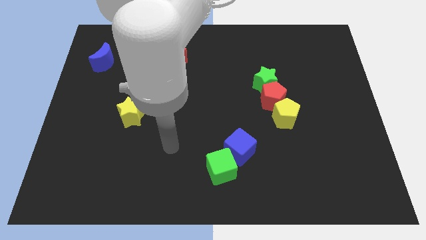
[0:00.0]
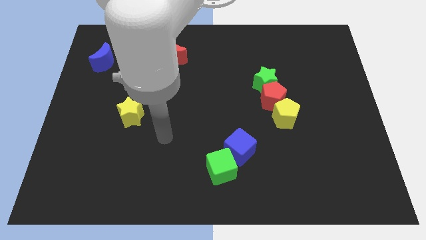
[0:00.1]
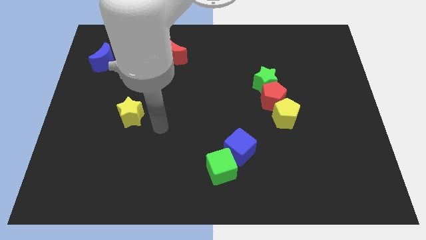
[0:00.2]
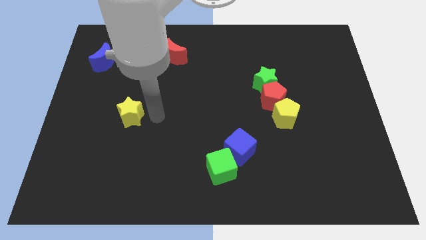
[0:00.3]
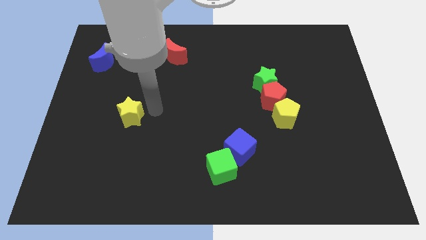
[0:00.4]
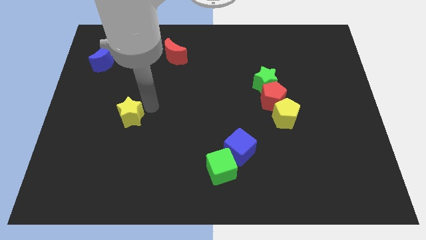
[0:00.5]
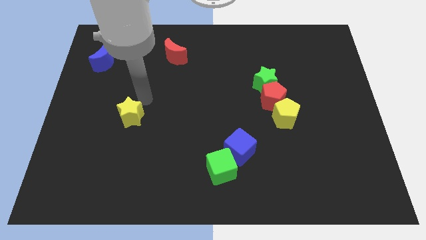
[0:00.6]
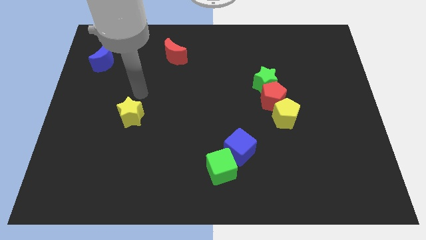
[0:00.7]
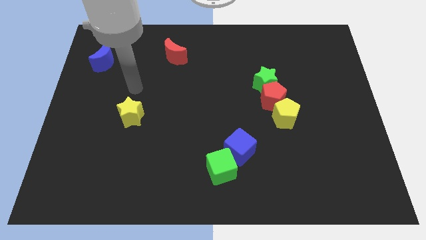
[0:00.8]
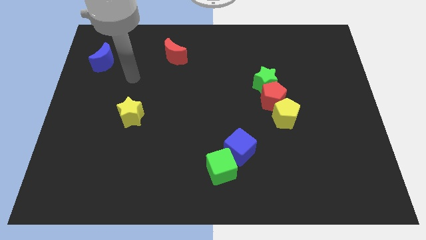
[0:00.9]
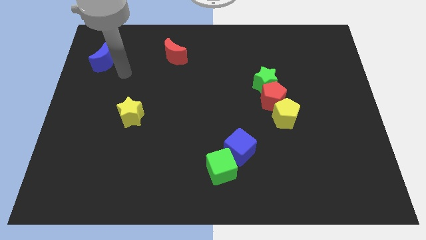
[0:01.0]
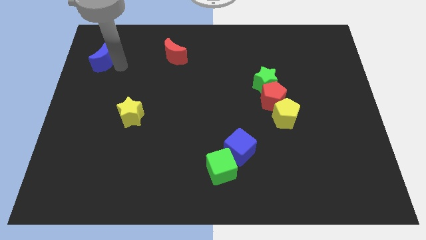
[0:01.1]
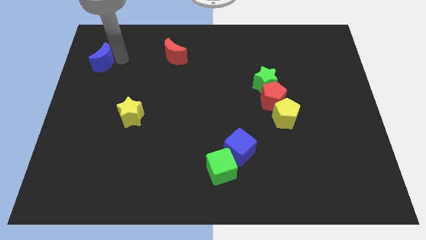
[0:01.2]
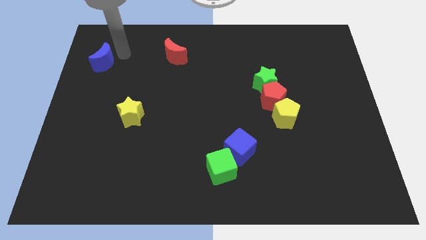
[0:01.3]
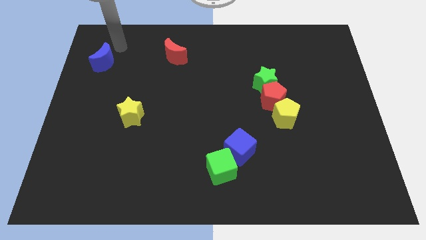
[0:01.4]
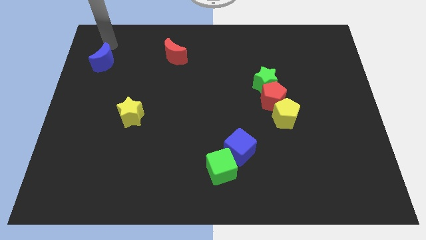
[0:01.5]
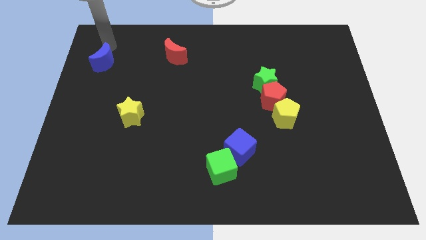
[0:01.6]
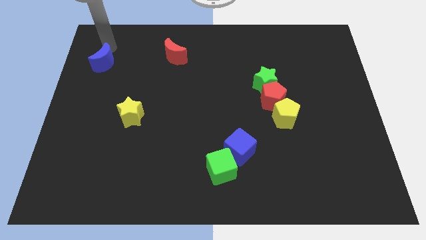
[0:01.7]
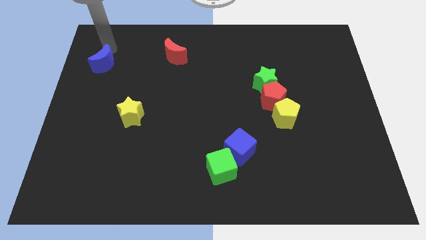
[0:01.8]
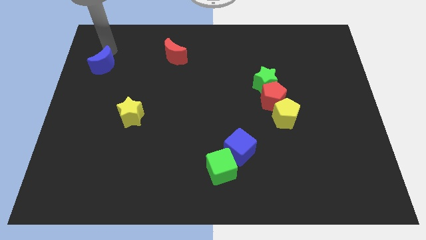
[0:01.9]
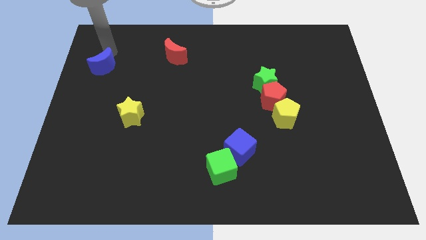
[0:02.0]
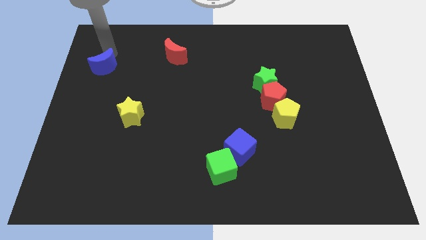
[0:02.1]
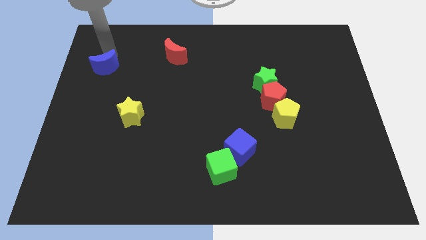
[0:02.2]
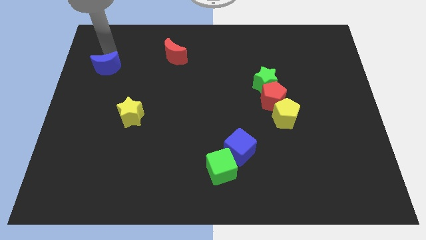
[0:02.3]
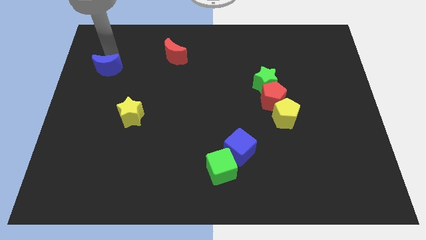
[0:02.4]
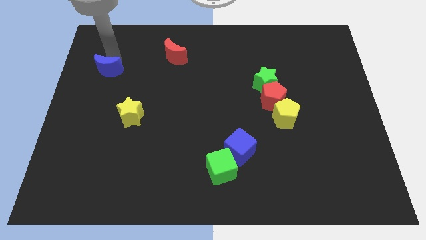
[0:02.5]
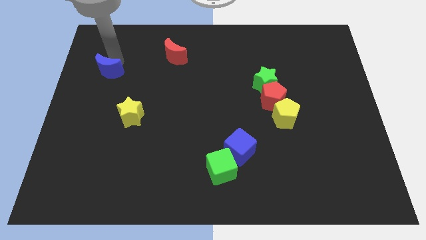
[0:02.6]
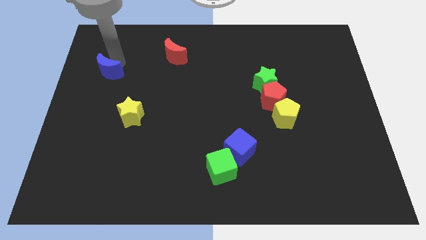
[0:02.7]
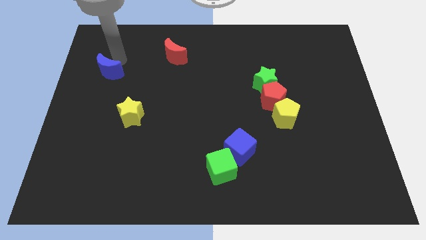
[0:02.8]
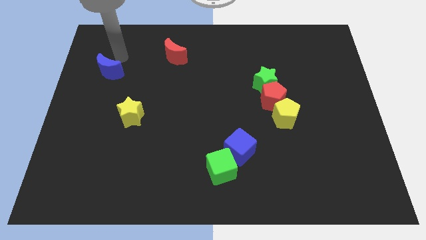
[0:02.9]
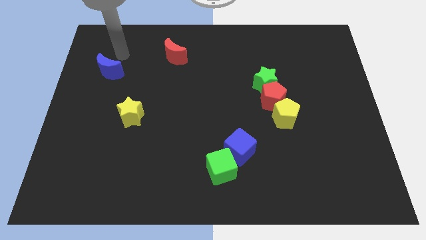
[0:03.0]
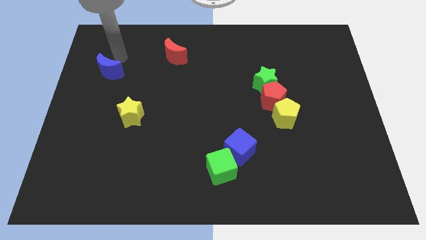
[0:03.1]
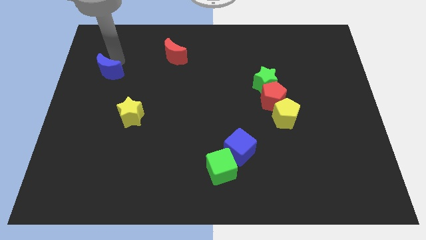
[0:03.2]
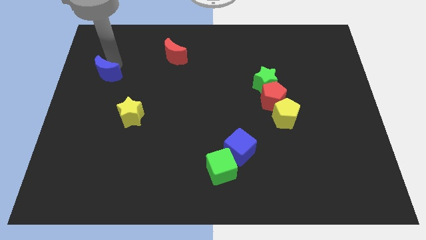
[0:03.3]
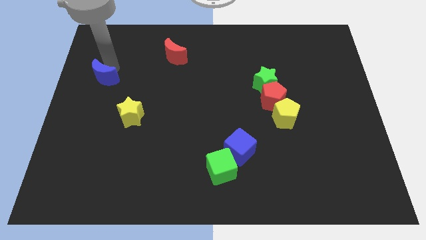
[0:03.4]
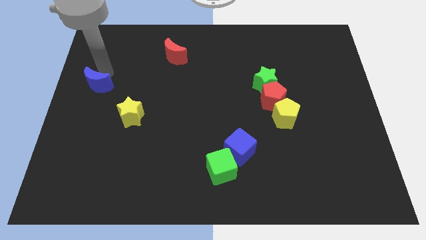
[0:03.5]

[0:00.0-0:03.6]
push the blue moon a little bit down

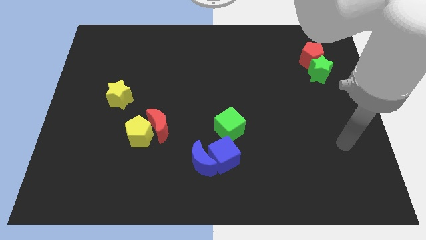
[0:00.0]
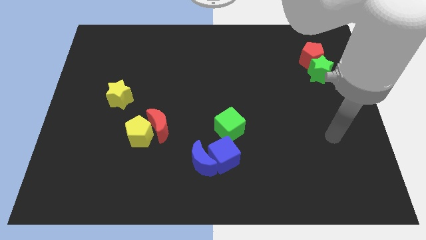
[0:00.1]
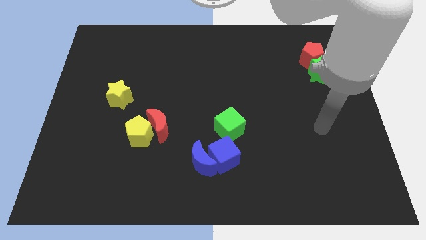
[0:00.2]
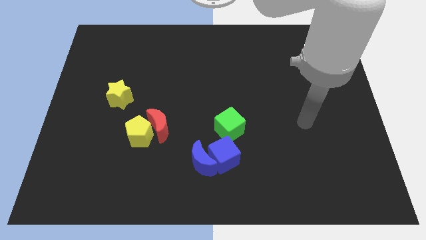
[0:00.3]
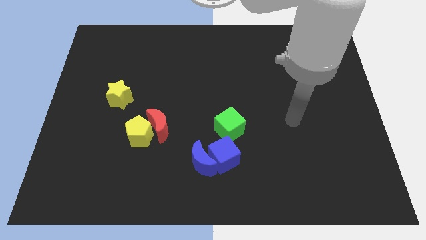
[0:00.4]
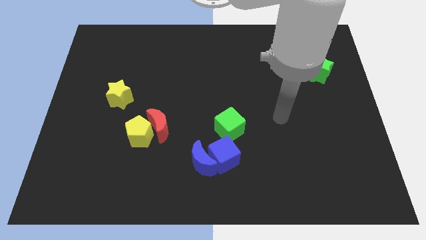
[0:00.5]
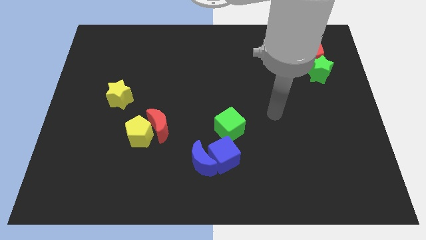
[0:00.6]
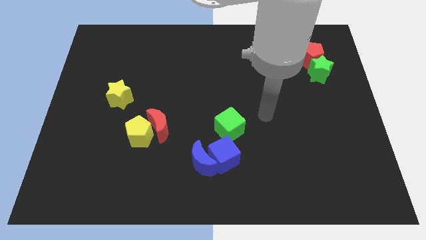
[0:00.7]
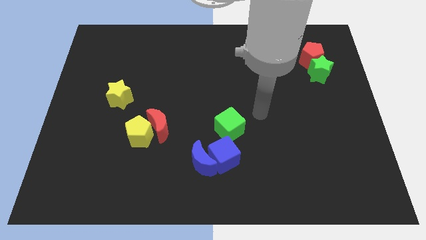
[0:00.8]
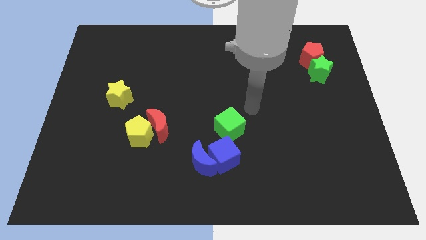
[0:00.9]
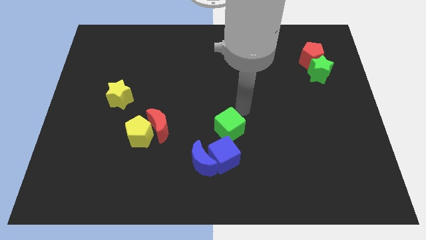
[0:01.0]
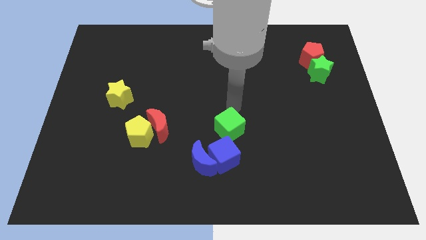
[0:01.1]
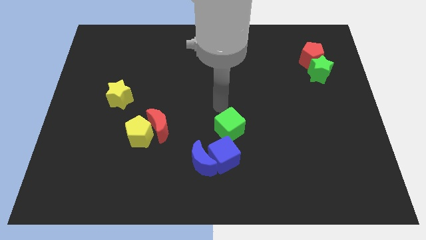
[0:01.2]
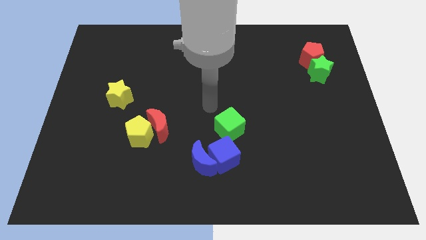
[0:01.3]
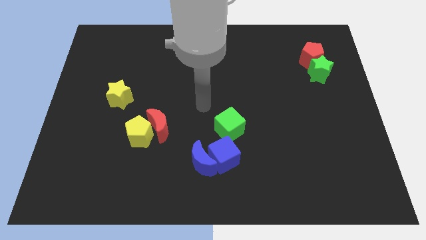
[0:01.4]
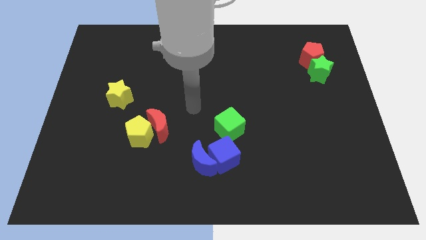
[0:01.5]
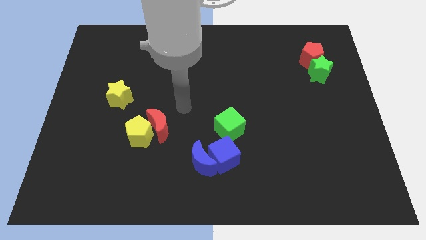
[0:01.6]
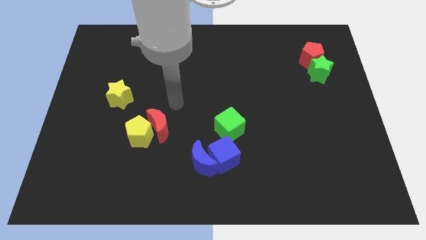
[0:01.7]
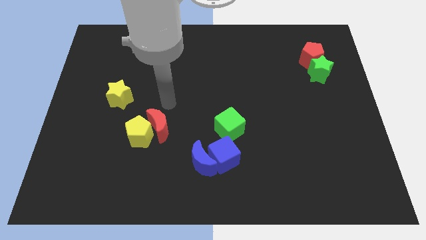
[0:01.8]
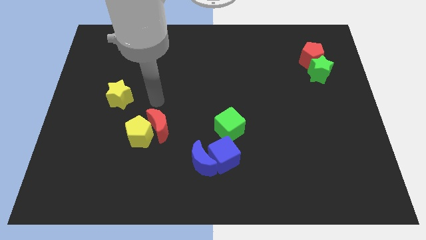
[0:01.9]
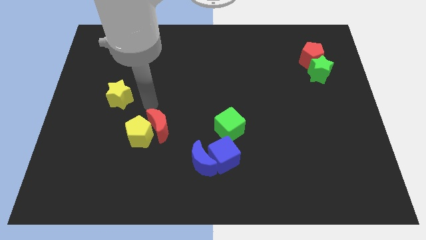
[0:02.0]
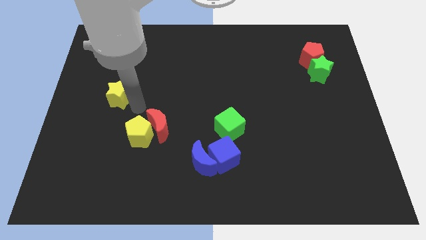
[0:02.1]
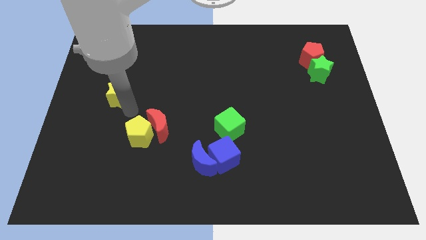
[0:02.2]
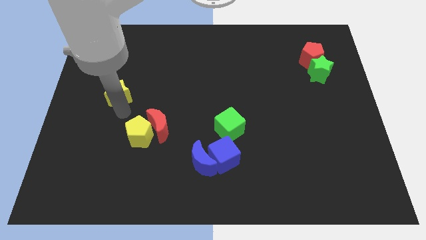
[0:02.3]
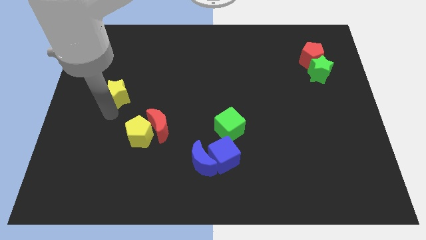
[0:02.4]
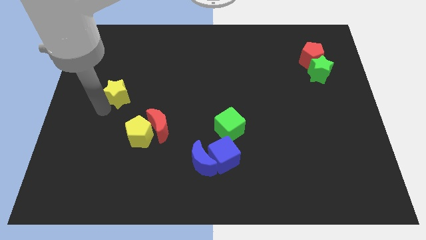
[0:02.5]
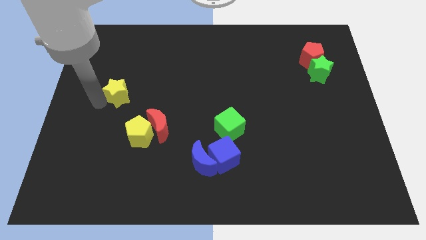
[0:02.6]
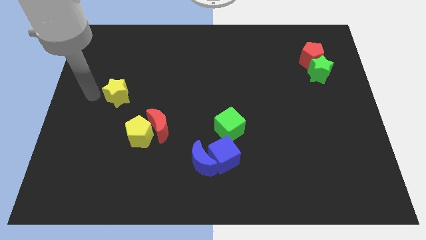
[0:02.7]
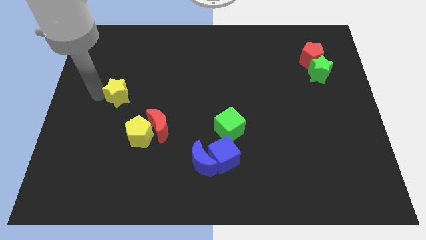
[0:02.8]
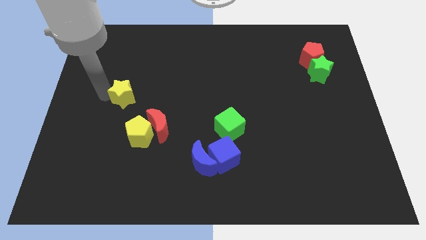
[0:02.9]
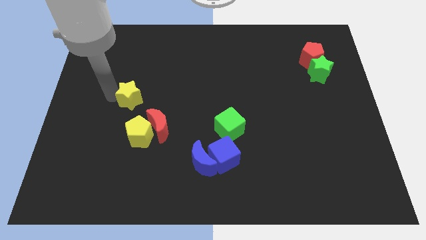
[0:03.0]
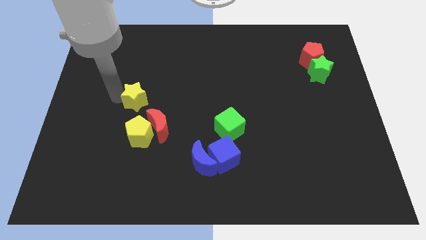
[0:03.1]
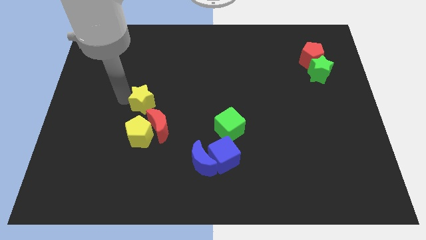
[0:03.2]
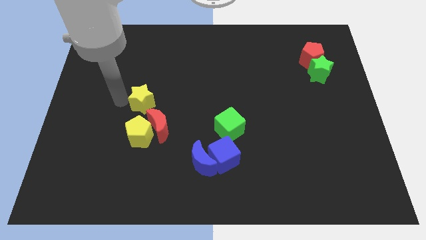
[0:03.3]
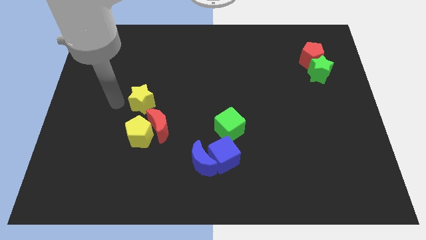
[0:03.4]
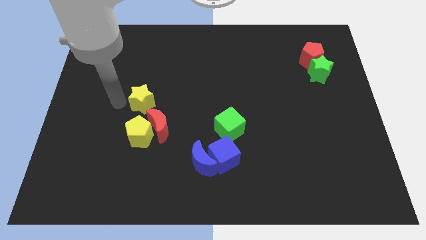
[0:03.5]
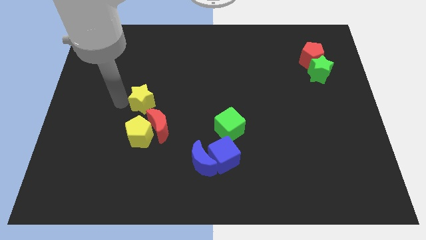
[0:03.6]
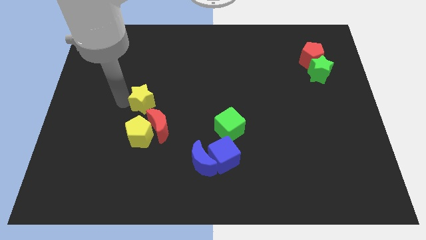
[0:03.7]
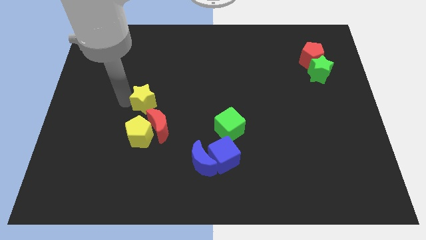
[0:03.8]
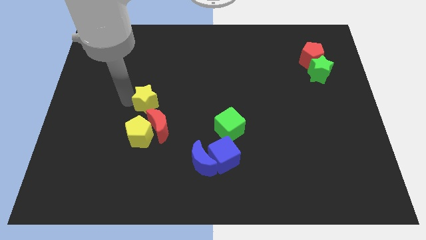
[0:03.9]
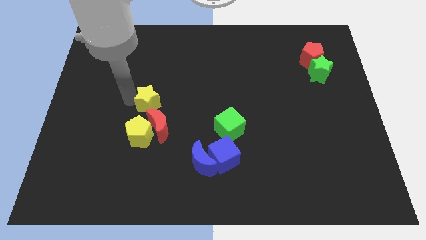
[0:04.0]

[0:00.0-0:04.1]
slightly push the yellow star right

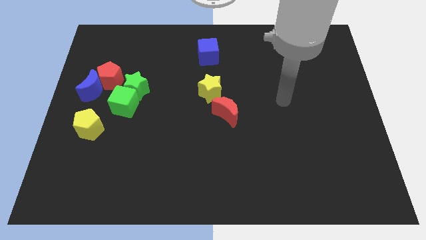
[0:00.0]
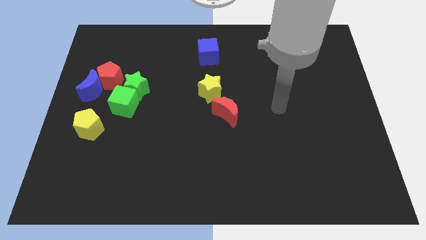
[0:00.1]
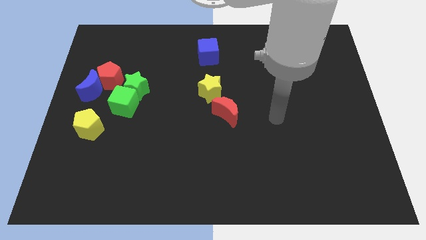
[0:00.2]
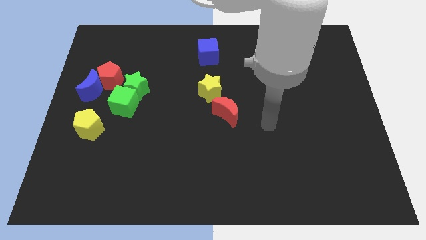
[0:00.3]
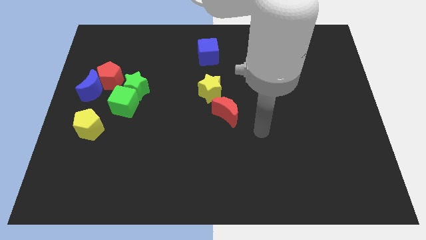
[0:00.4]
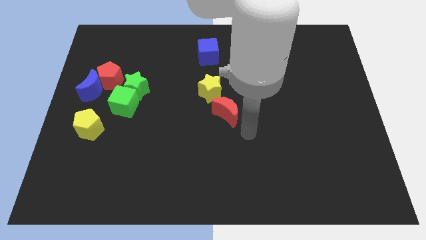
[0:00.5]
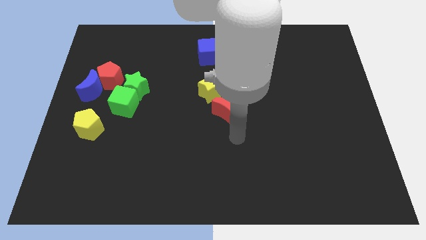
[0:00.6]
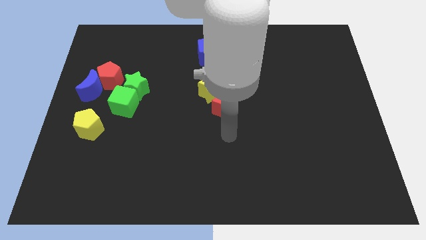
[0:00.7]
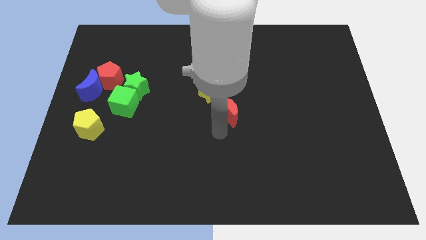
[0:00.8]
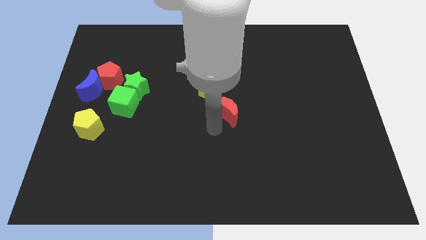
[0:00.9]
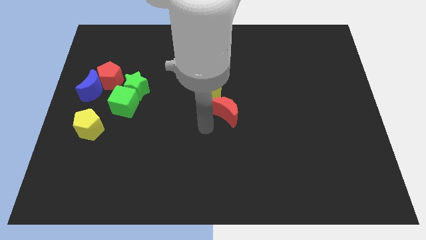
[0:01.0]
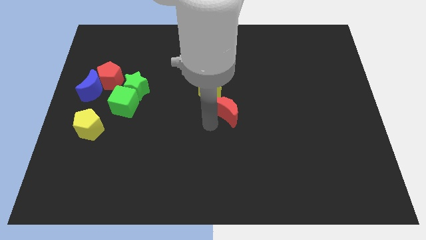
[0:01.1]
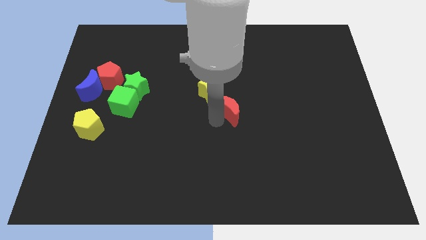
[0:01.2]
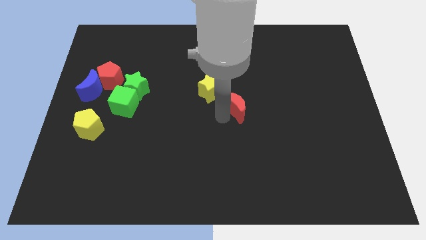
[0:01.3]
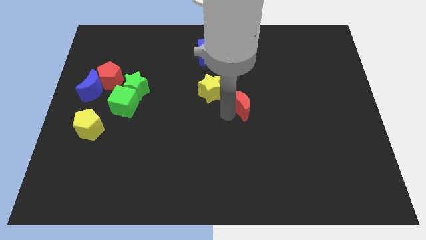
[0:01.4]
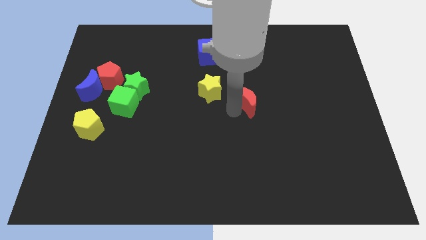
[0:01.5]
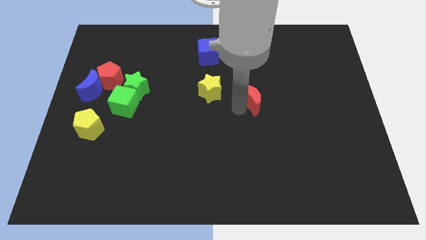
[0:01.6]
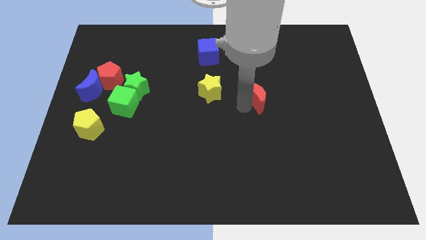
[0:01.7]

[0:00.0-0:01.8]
move the red moon upwards and right diagonally a bit
